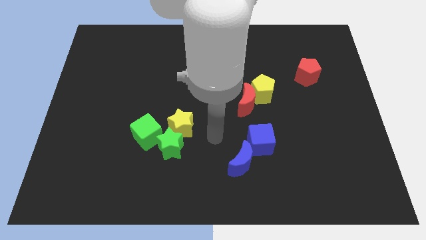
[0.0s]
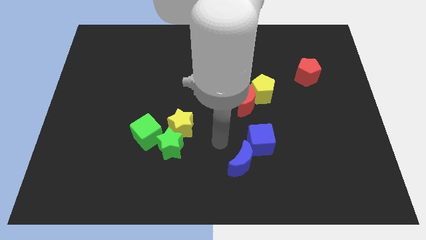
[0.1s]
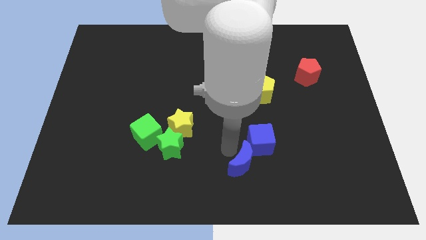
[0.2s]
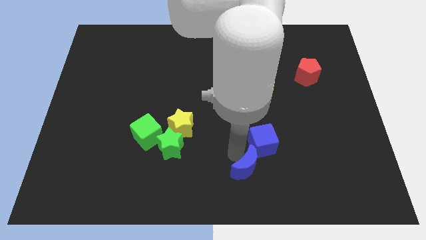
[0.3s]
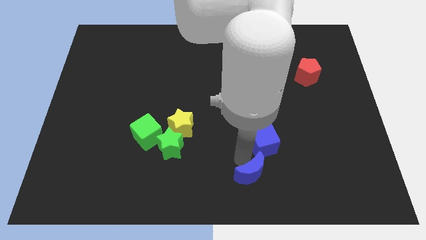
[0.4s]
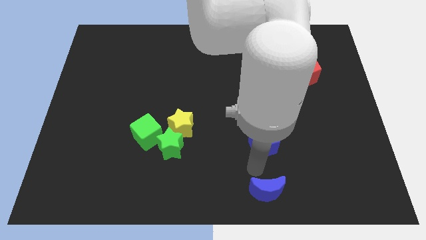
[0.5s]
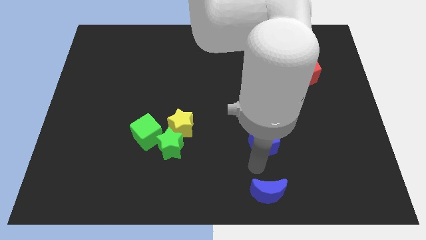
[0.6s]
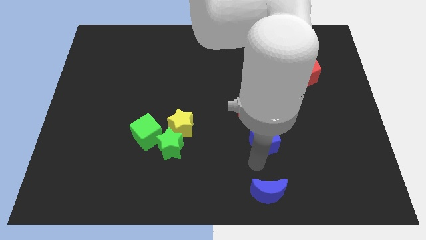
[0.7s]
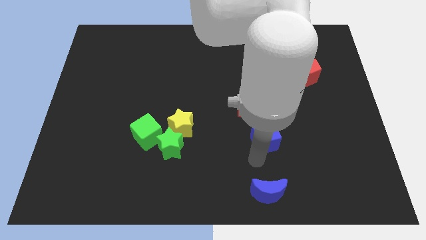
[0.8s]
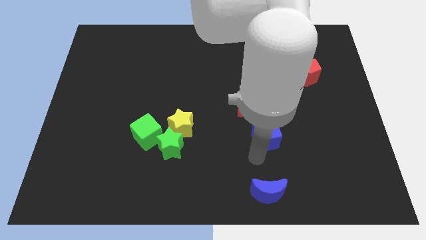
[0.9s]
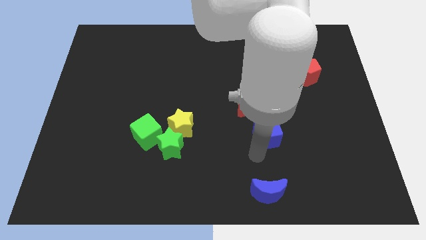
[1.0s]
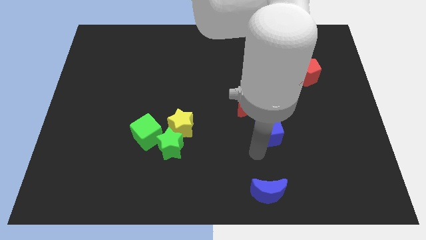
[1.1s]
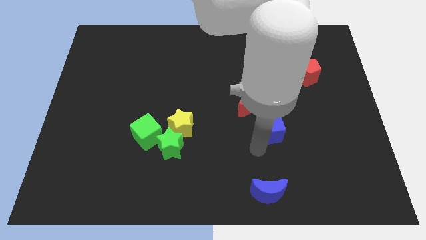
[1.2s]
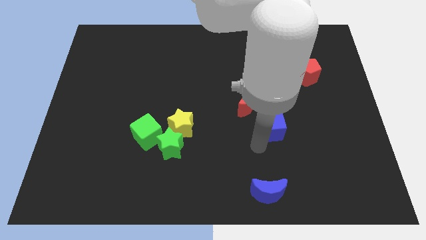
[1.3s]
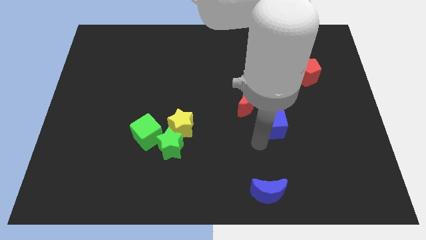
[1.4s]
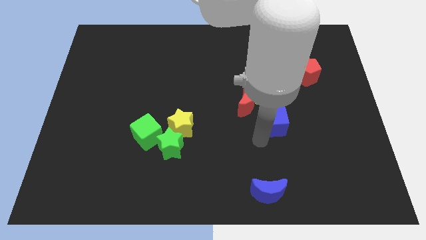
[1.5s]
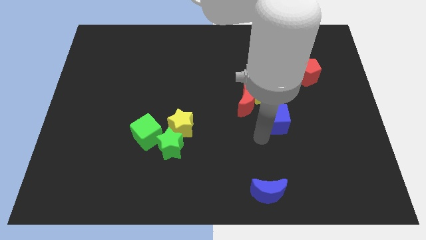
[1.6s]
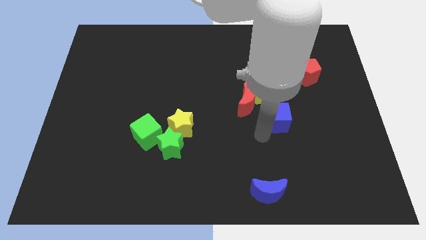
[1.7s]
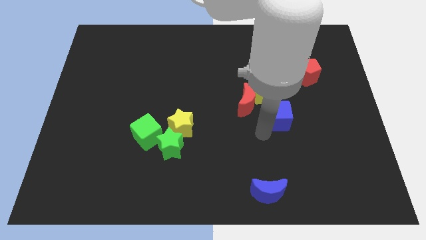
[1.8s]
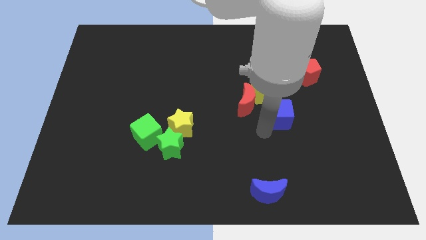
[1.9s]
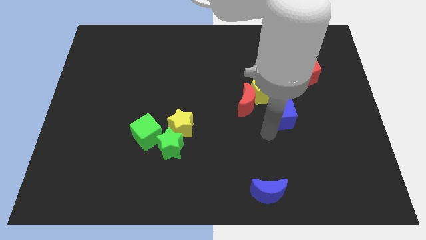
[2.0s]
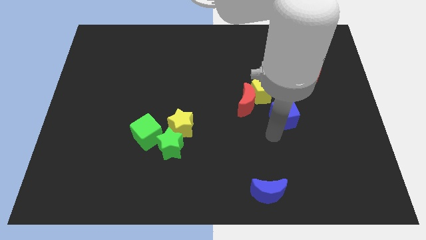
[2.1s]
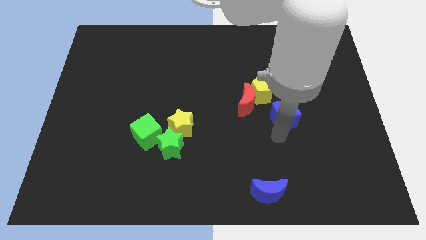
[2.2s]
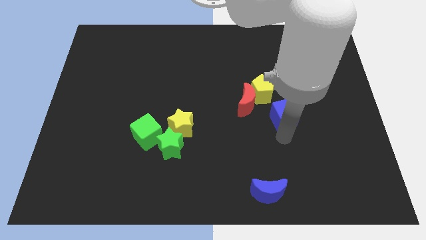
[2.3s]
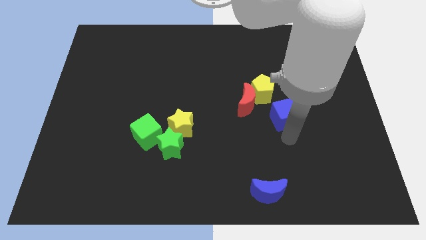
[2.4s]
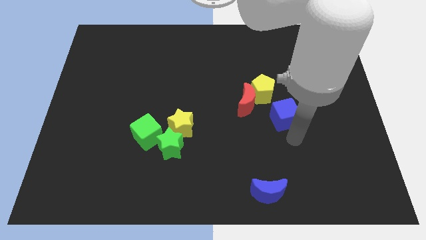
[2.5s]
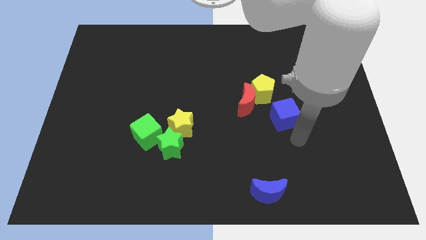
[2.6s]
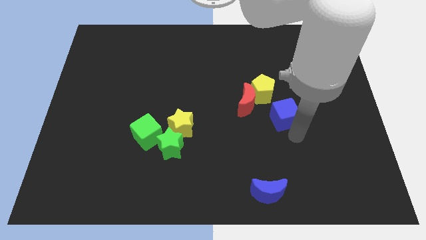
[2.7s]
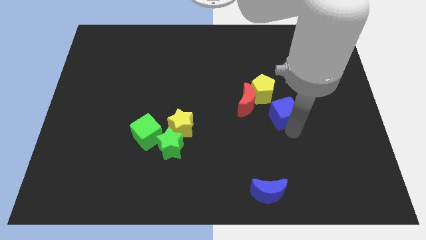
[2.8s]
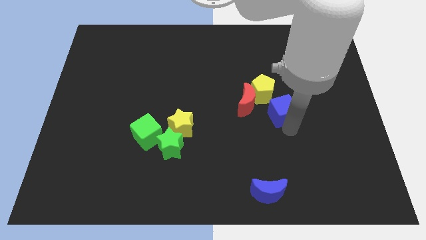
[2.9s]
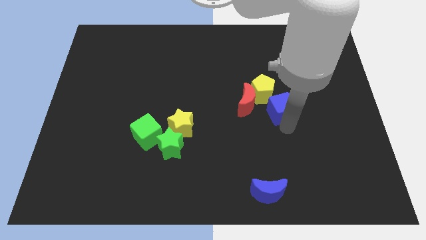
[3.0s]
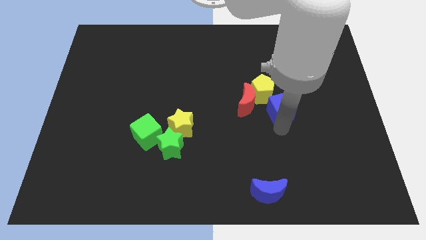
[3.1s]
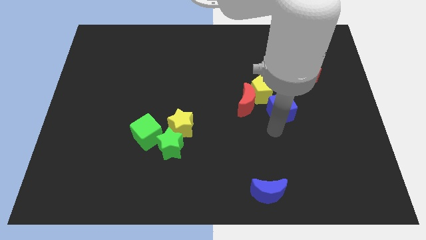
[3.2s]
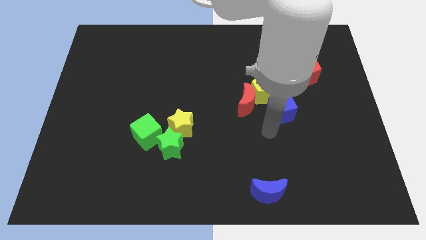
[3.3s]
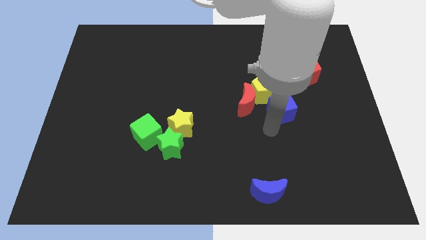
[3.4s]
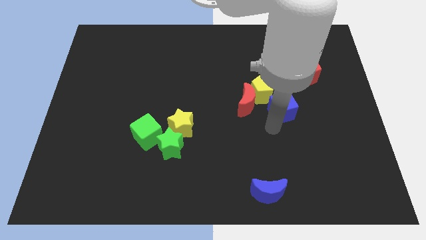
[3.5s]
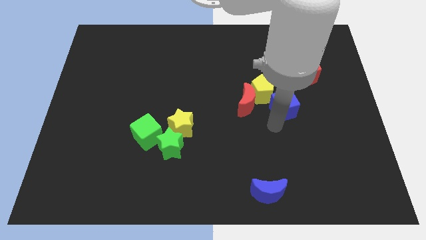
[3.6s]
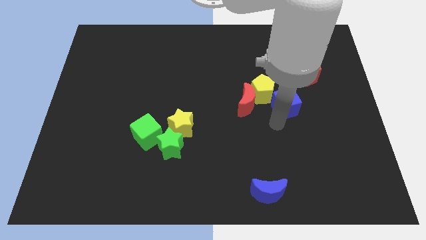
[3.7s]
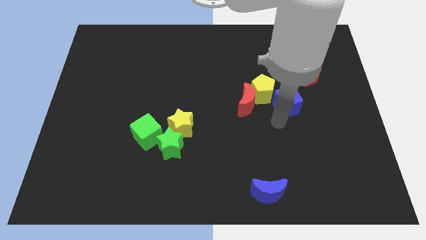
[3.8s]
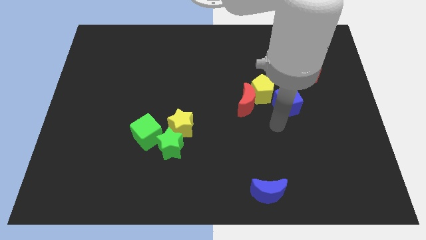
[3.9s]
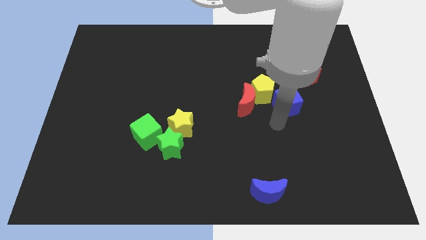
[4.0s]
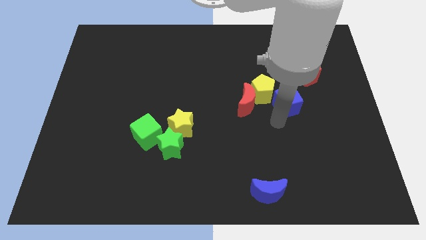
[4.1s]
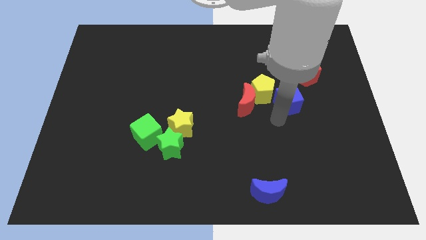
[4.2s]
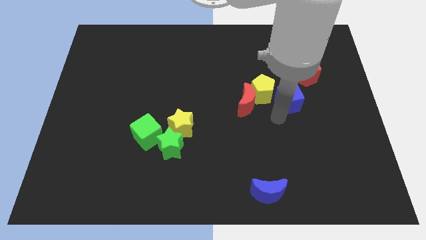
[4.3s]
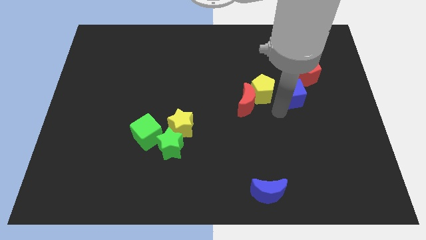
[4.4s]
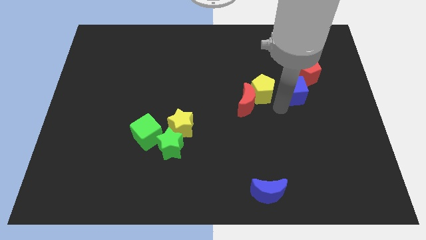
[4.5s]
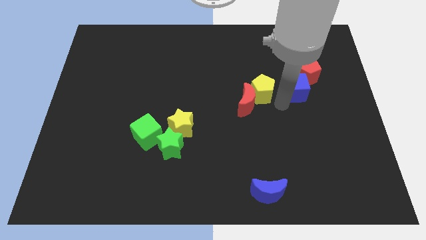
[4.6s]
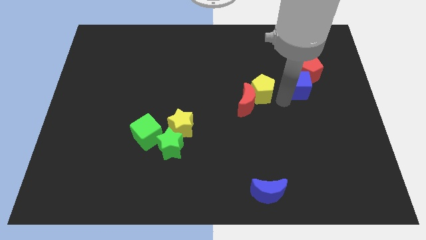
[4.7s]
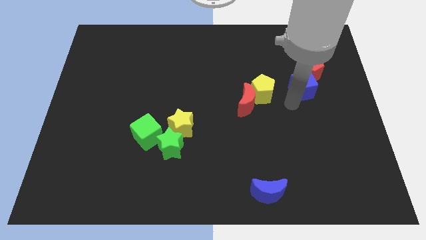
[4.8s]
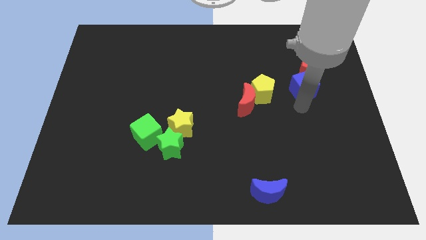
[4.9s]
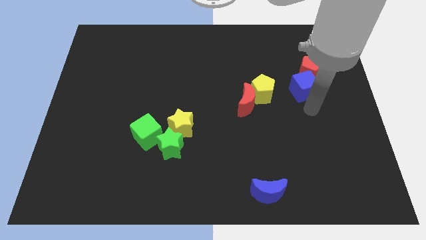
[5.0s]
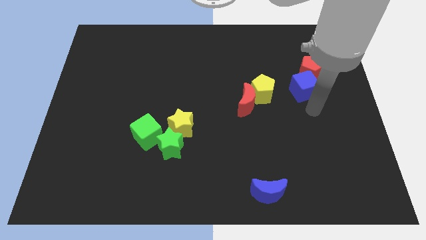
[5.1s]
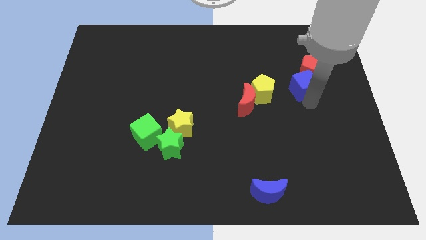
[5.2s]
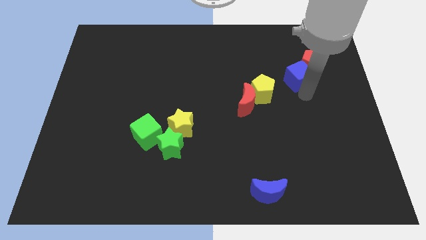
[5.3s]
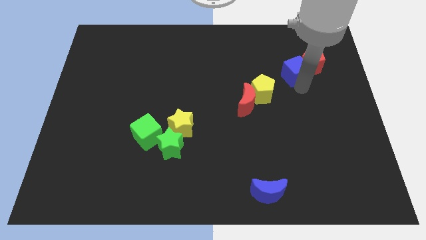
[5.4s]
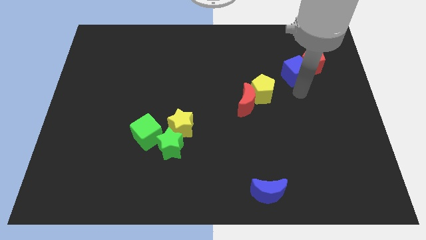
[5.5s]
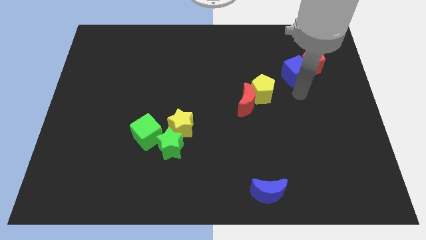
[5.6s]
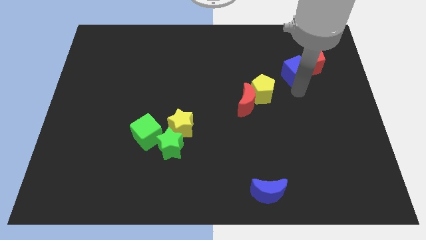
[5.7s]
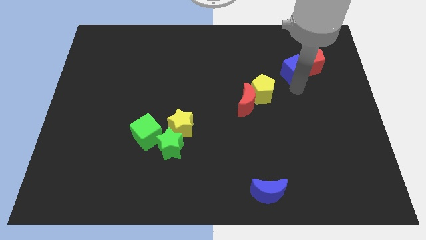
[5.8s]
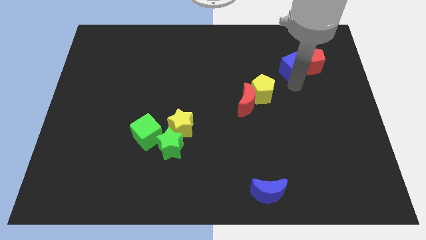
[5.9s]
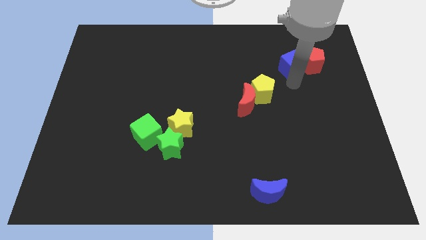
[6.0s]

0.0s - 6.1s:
slide the blue cube to the top left of the red pentagon

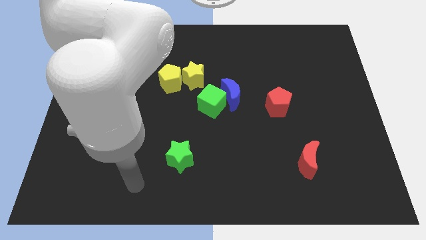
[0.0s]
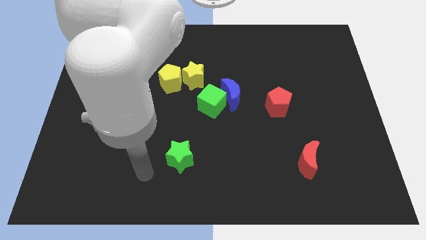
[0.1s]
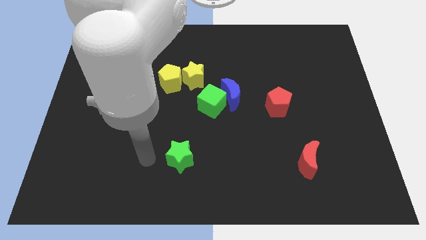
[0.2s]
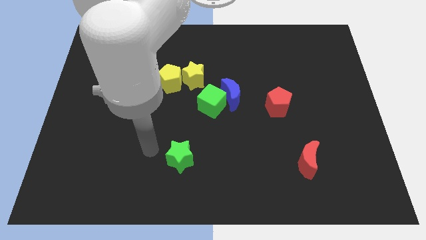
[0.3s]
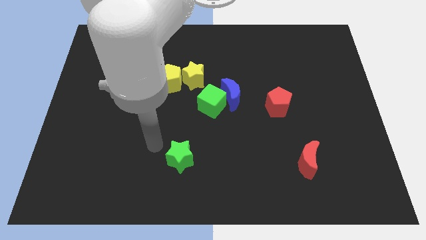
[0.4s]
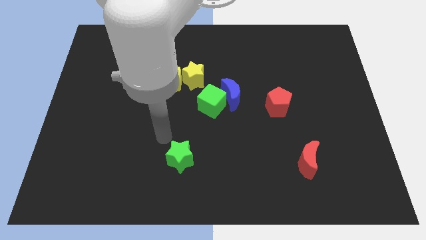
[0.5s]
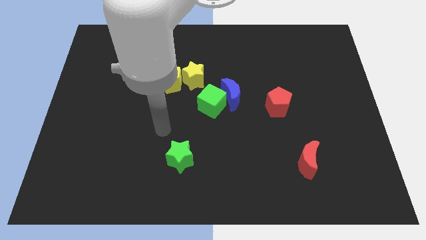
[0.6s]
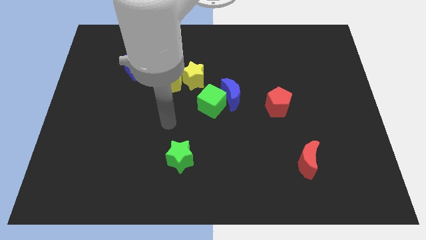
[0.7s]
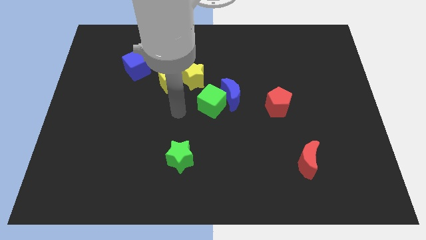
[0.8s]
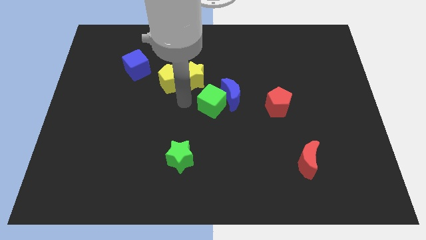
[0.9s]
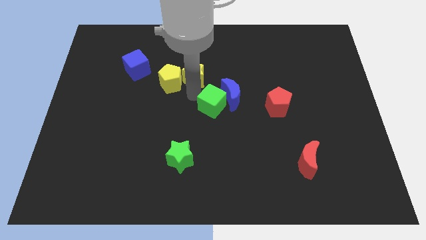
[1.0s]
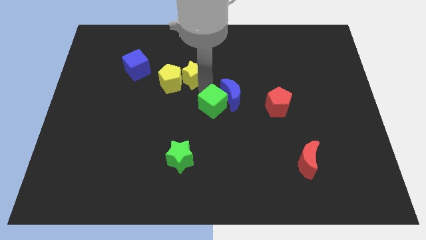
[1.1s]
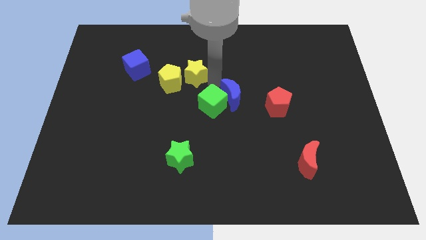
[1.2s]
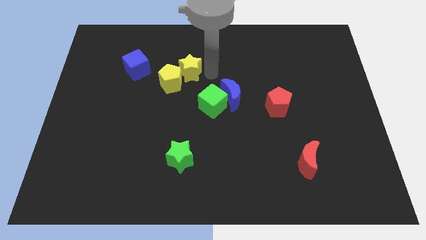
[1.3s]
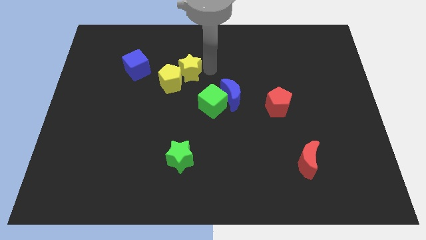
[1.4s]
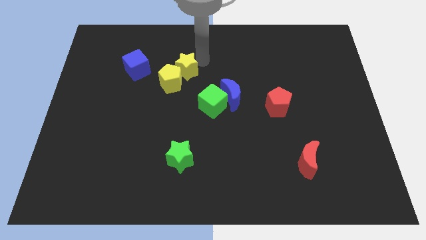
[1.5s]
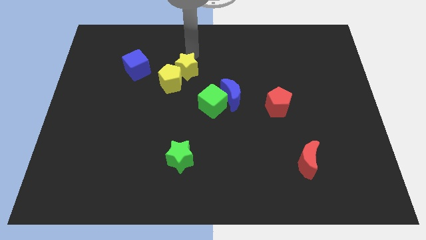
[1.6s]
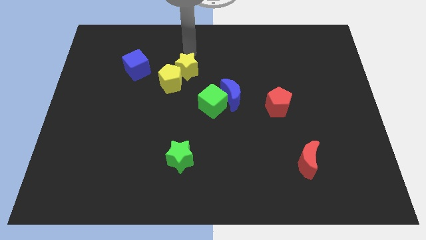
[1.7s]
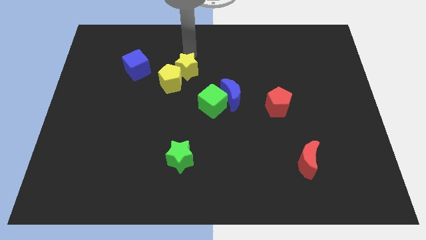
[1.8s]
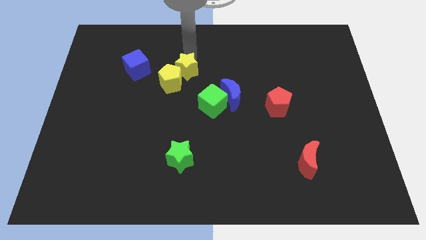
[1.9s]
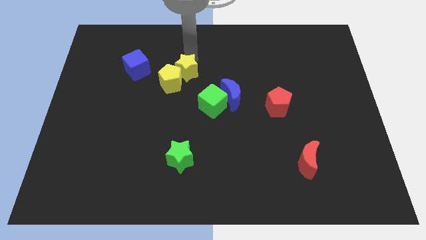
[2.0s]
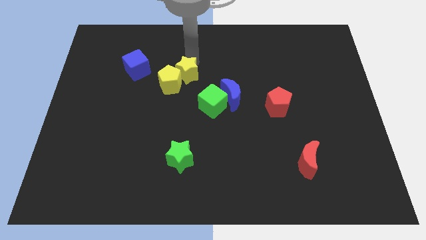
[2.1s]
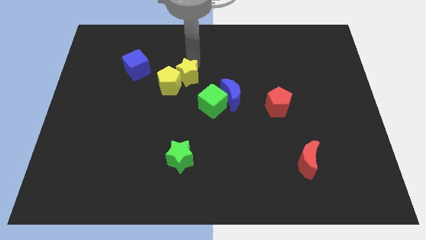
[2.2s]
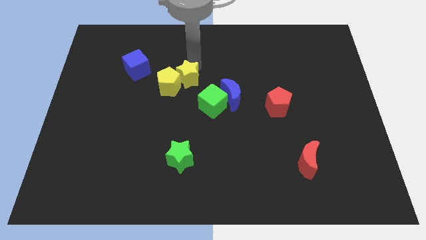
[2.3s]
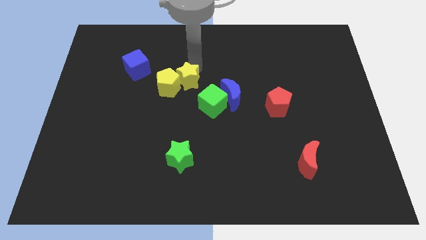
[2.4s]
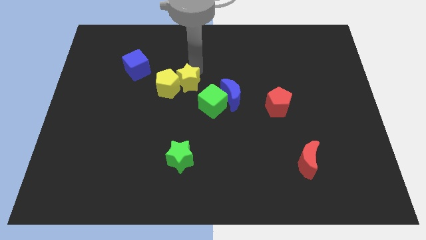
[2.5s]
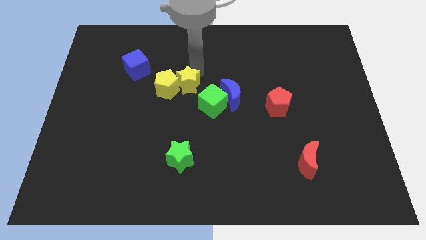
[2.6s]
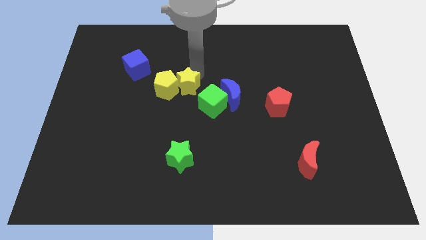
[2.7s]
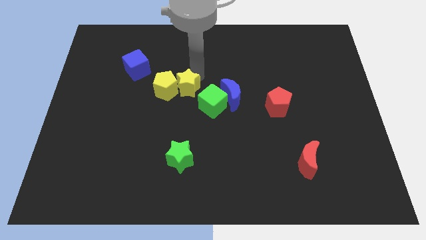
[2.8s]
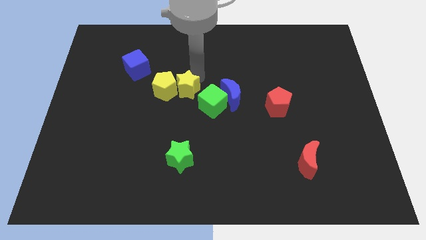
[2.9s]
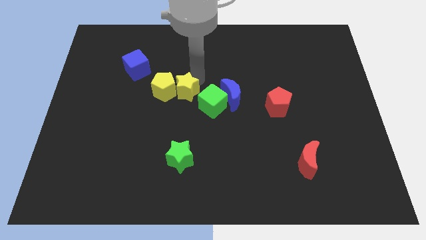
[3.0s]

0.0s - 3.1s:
put the yellow star to the left of the green cube
